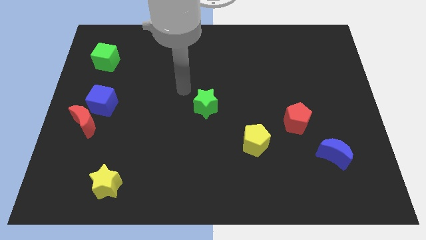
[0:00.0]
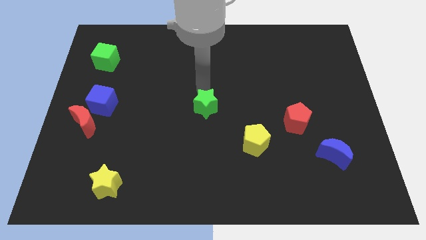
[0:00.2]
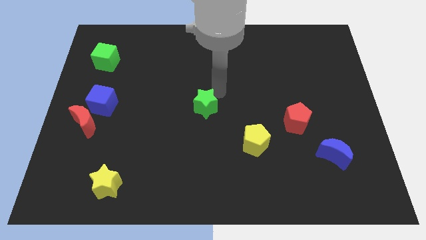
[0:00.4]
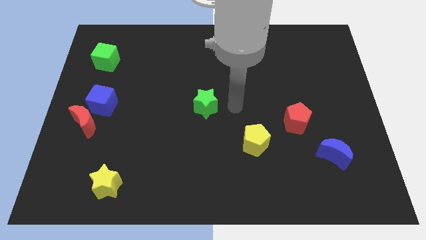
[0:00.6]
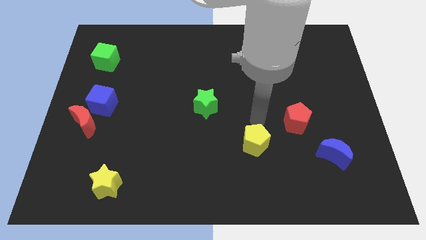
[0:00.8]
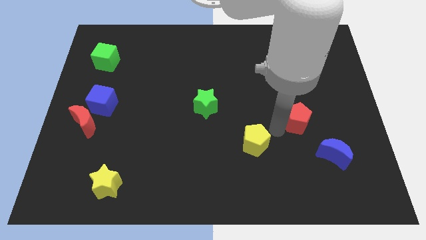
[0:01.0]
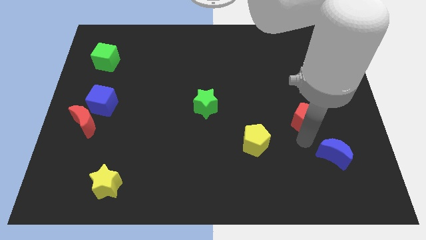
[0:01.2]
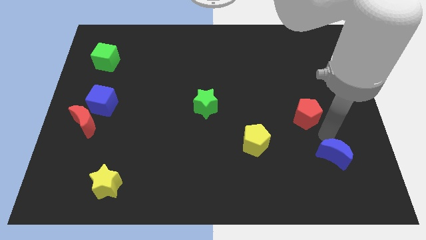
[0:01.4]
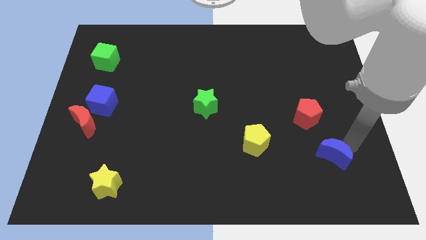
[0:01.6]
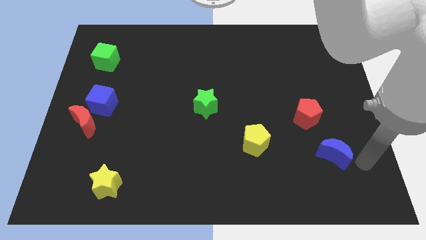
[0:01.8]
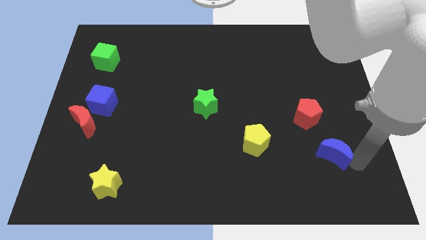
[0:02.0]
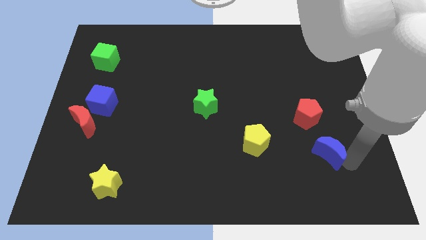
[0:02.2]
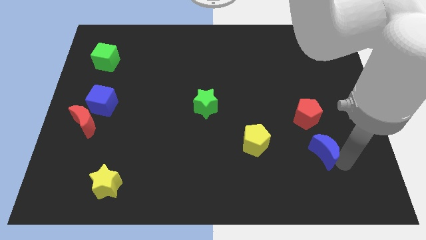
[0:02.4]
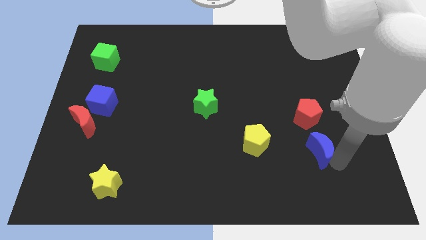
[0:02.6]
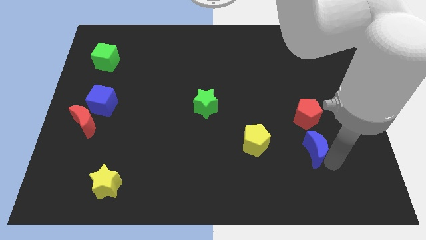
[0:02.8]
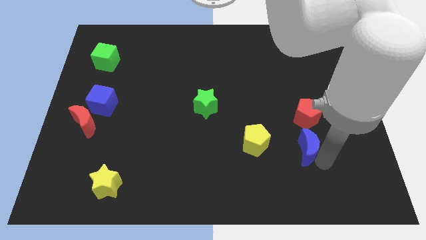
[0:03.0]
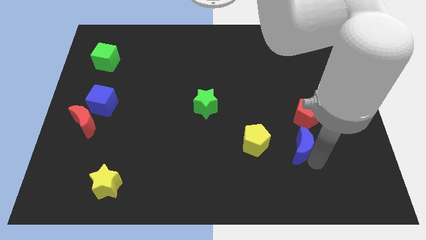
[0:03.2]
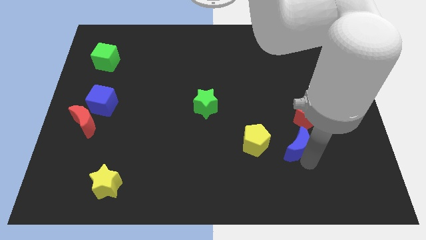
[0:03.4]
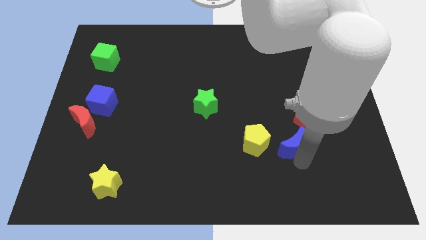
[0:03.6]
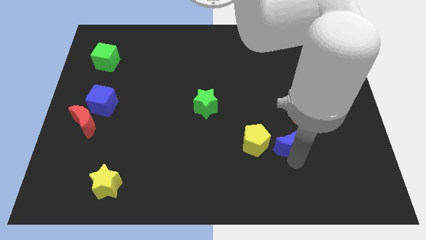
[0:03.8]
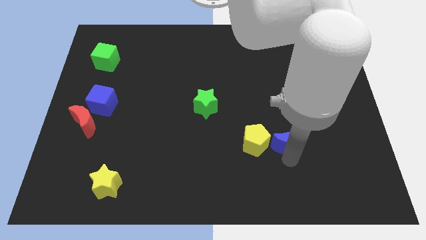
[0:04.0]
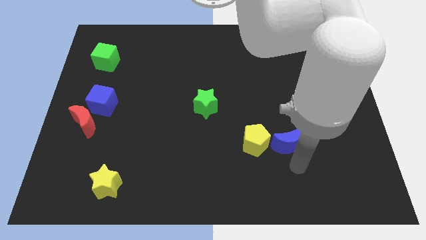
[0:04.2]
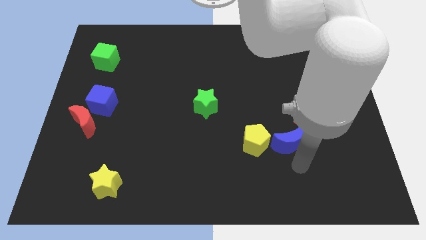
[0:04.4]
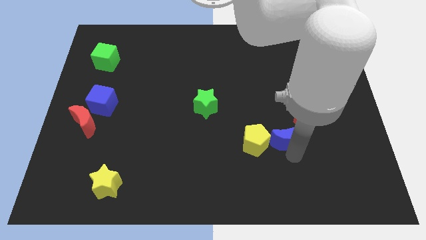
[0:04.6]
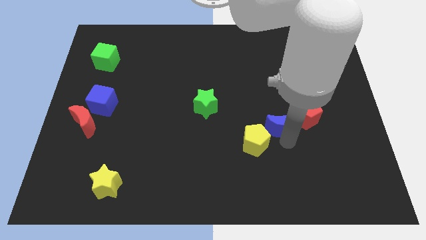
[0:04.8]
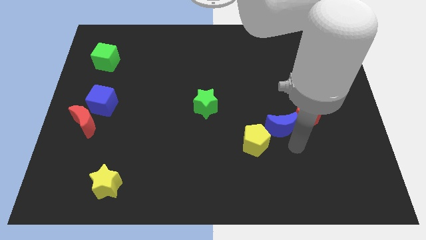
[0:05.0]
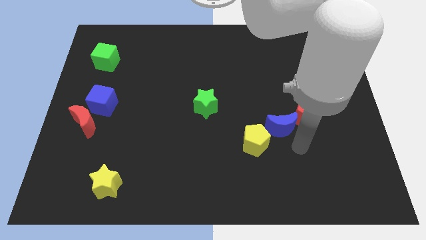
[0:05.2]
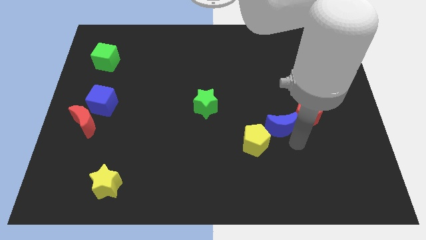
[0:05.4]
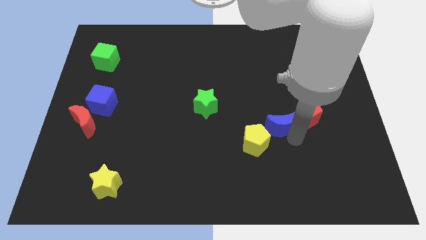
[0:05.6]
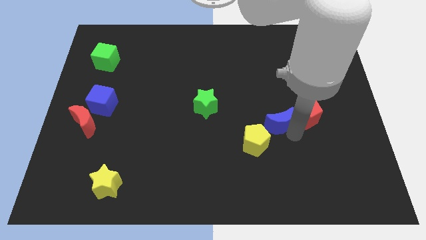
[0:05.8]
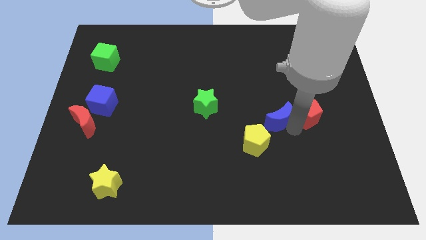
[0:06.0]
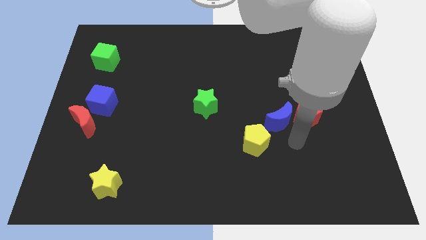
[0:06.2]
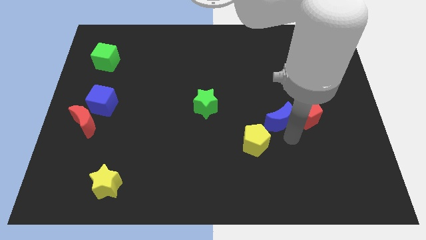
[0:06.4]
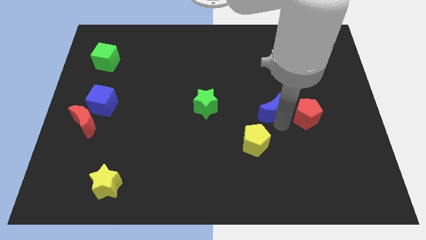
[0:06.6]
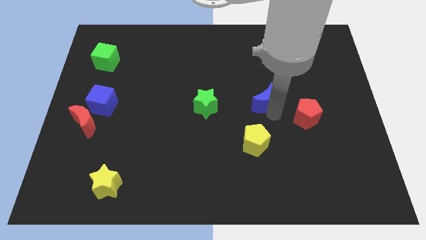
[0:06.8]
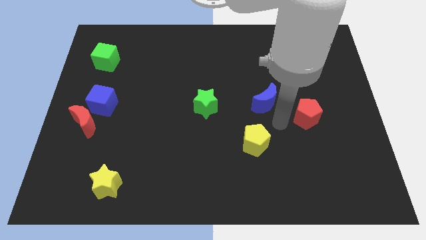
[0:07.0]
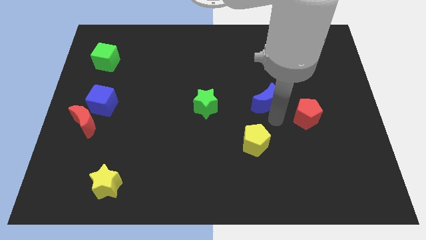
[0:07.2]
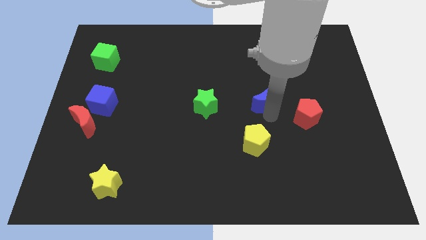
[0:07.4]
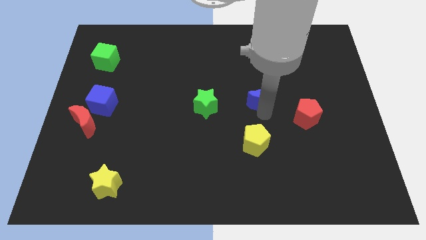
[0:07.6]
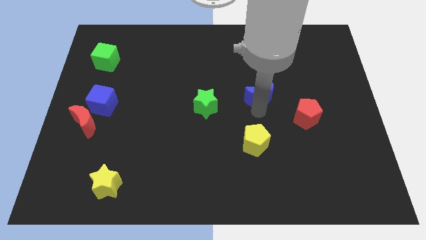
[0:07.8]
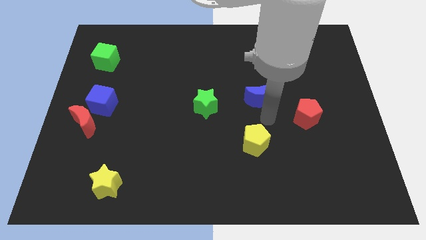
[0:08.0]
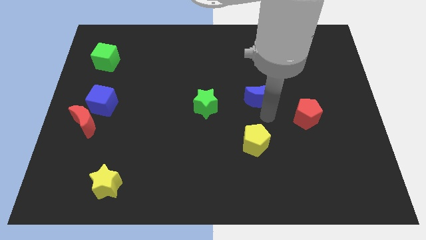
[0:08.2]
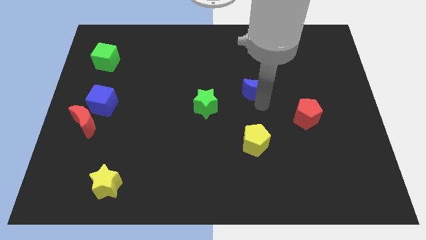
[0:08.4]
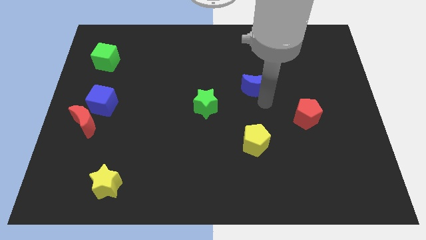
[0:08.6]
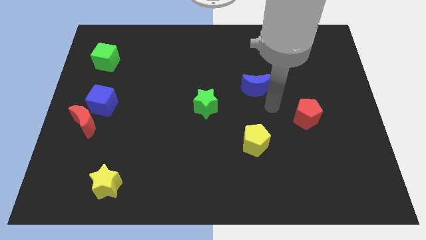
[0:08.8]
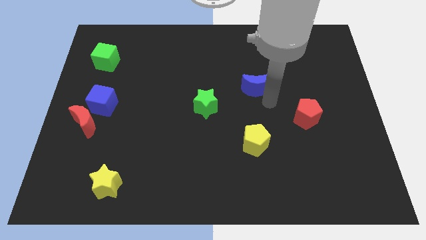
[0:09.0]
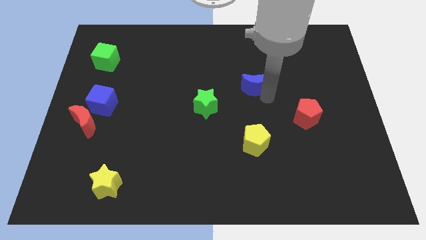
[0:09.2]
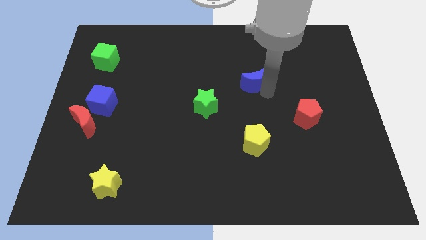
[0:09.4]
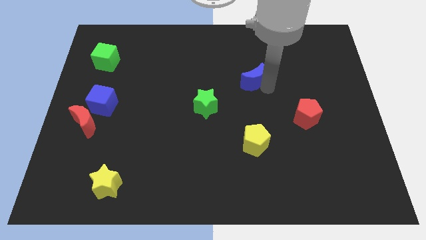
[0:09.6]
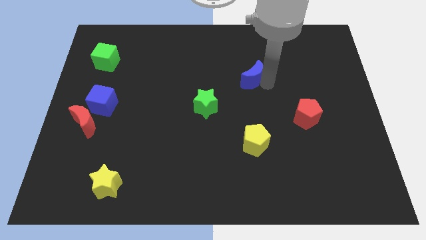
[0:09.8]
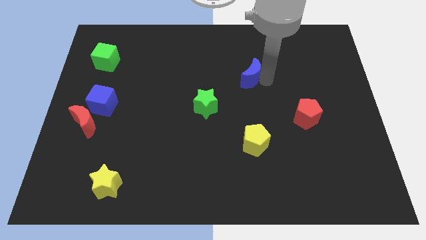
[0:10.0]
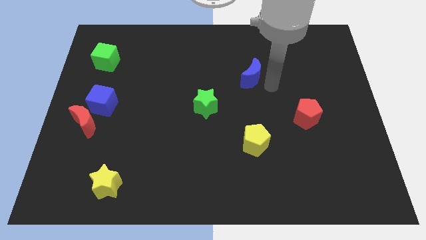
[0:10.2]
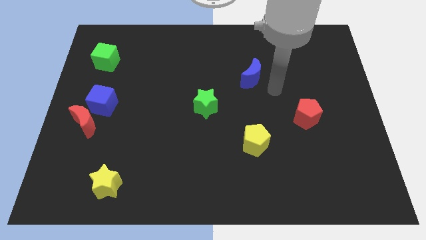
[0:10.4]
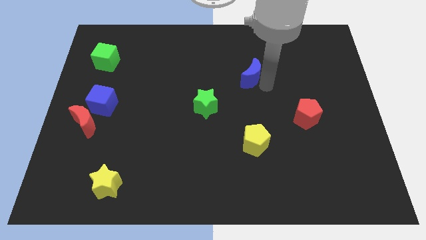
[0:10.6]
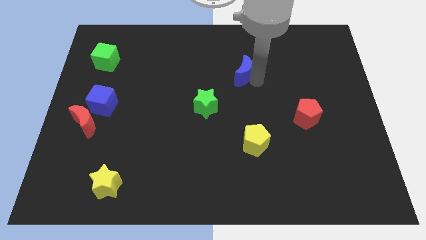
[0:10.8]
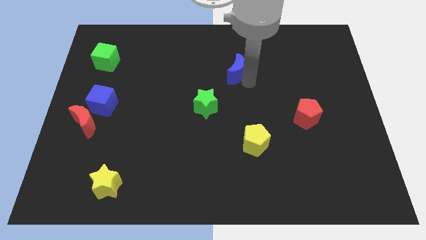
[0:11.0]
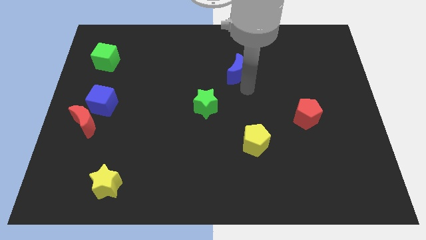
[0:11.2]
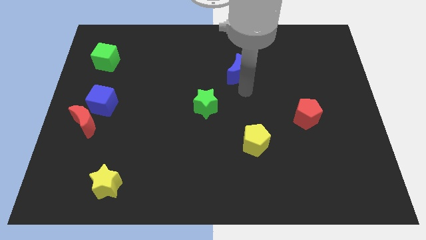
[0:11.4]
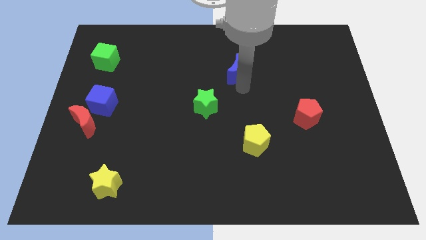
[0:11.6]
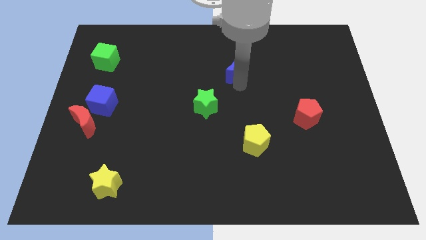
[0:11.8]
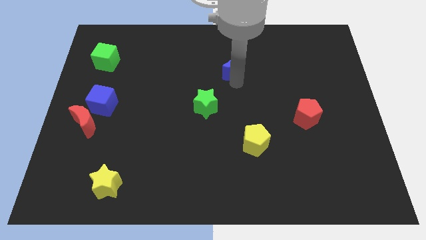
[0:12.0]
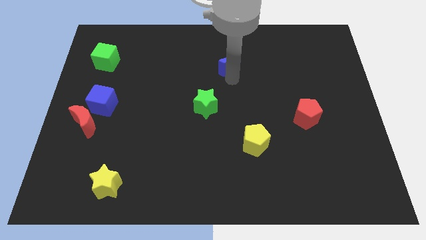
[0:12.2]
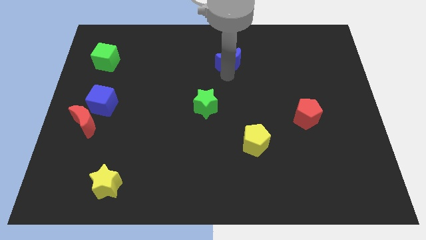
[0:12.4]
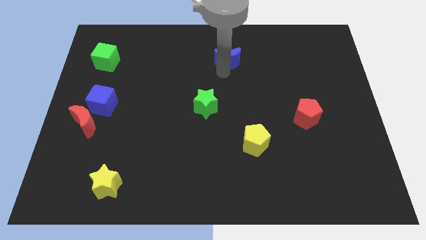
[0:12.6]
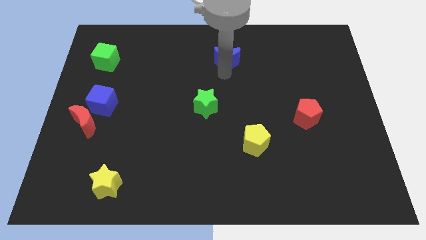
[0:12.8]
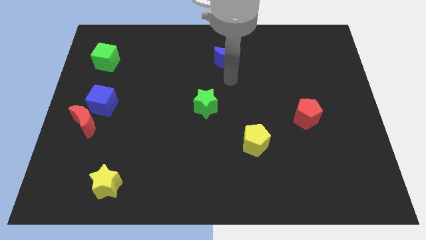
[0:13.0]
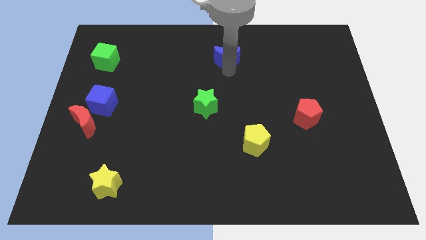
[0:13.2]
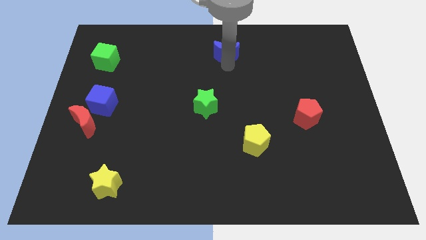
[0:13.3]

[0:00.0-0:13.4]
slide the blue moon to the top side
